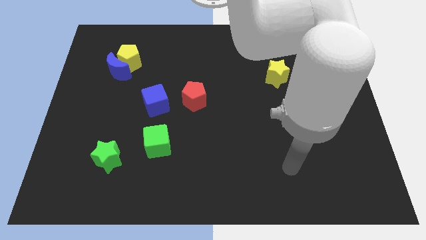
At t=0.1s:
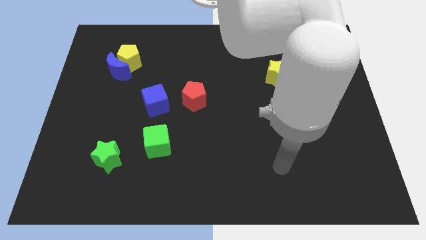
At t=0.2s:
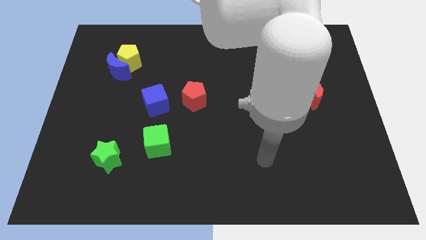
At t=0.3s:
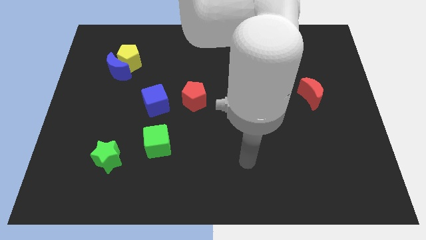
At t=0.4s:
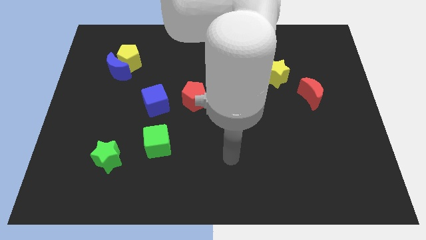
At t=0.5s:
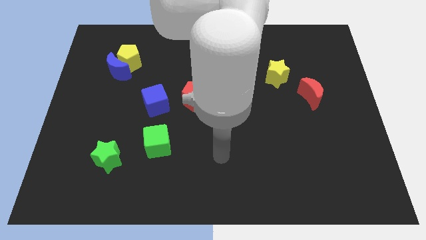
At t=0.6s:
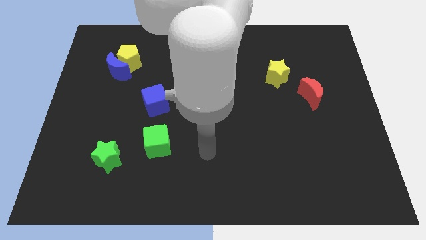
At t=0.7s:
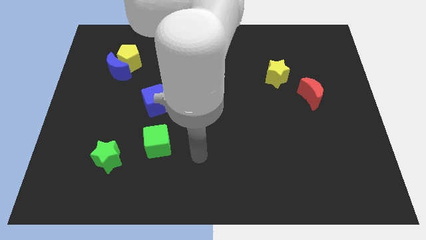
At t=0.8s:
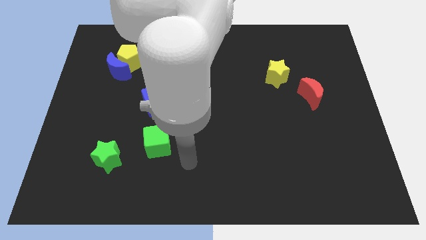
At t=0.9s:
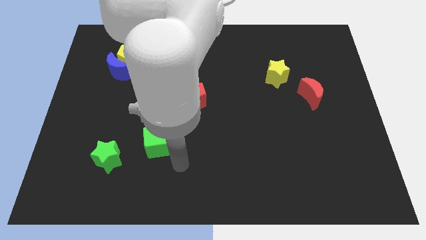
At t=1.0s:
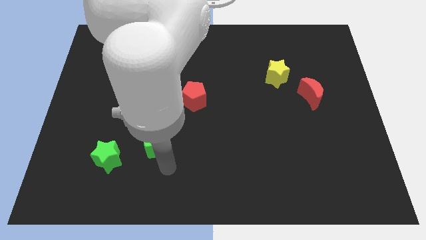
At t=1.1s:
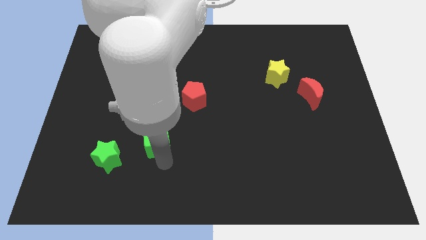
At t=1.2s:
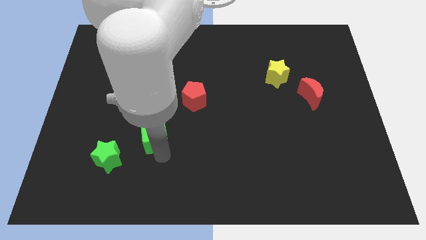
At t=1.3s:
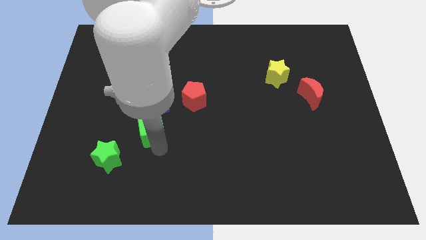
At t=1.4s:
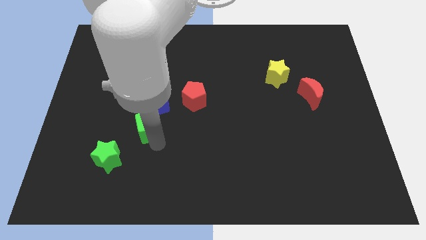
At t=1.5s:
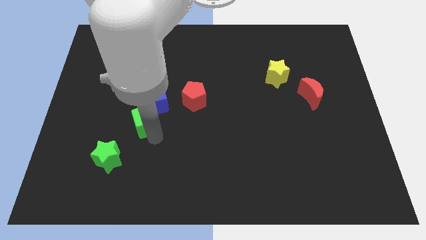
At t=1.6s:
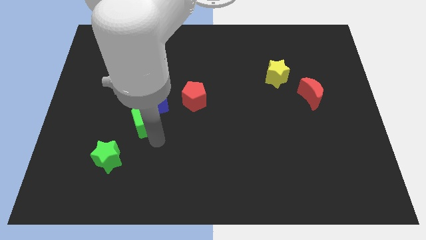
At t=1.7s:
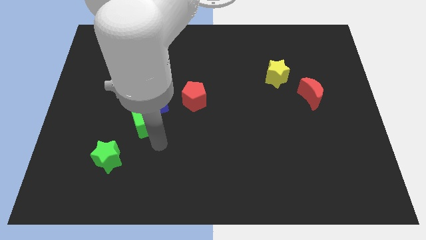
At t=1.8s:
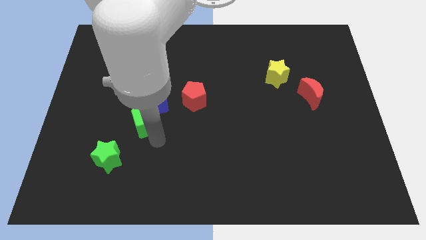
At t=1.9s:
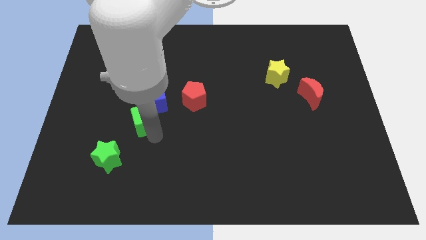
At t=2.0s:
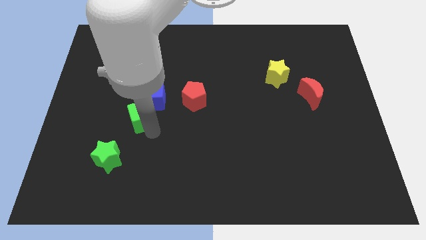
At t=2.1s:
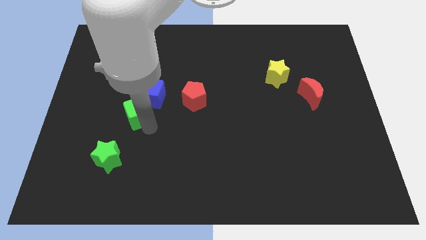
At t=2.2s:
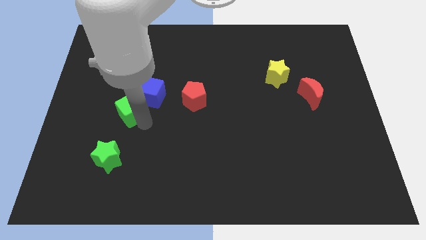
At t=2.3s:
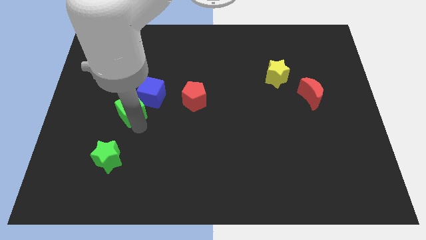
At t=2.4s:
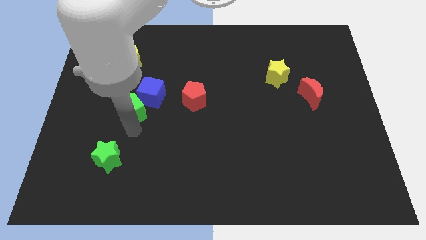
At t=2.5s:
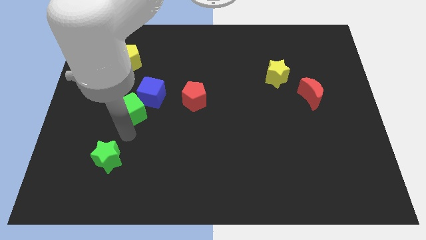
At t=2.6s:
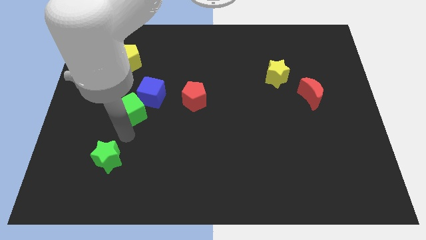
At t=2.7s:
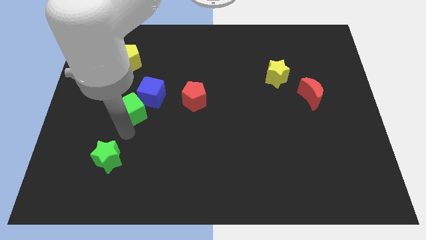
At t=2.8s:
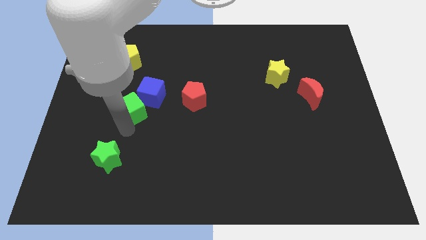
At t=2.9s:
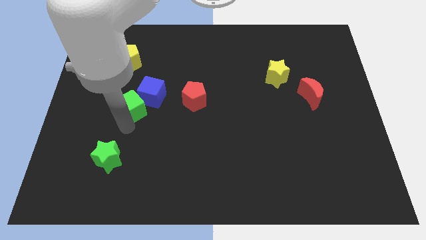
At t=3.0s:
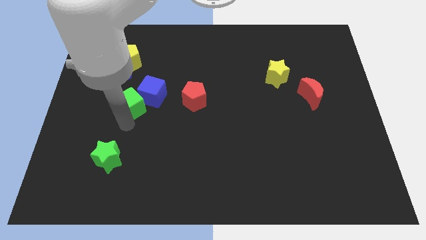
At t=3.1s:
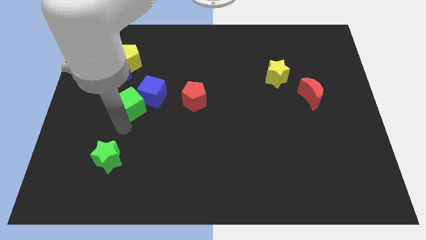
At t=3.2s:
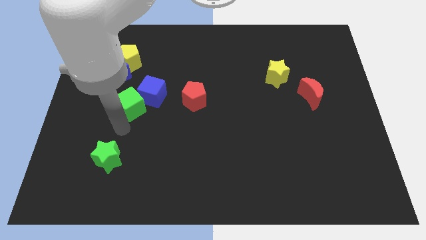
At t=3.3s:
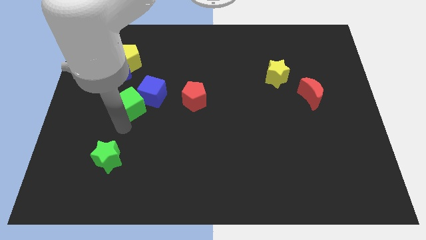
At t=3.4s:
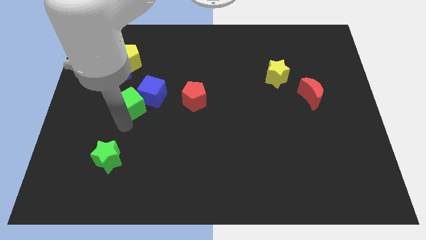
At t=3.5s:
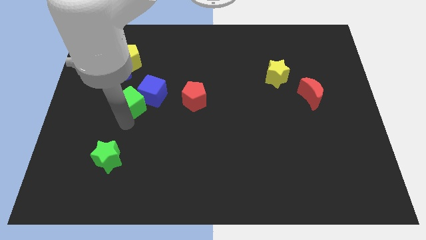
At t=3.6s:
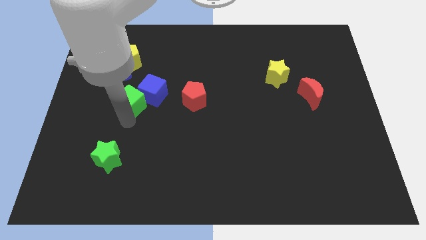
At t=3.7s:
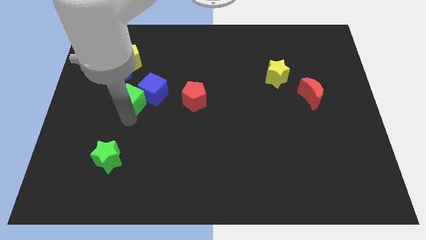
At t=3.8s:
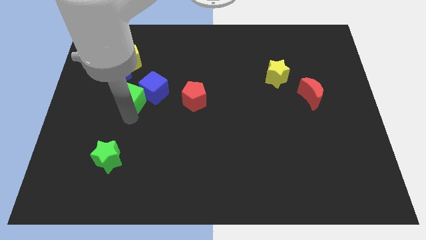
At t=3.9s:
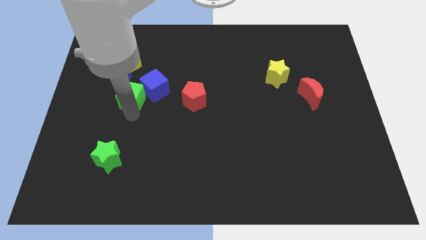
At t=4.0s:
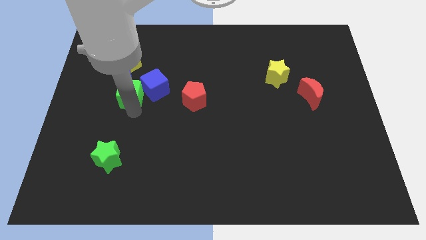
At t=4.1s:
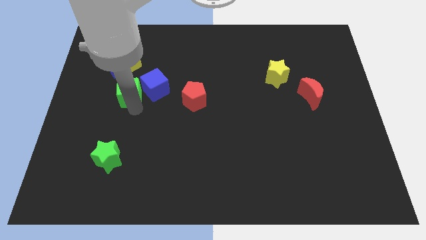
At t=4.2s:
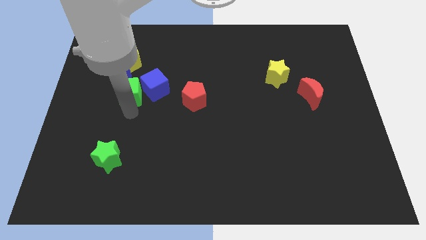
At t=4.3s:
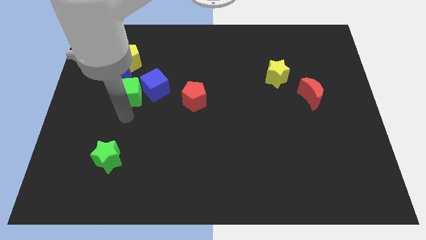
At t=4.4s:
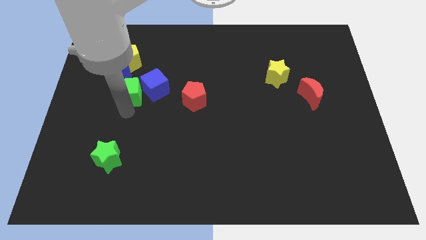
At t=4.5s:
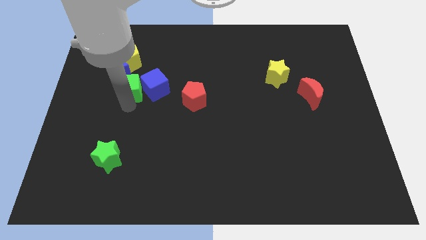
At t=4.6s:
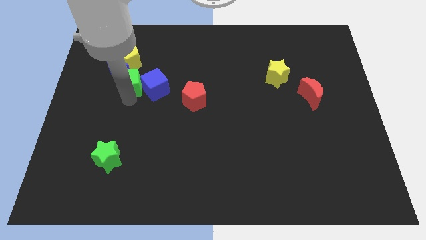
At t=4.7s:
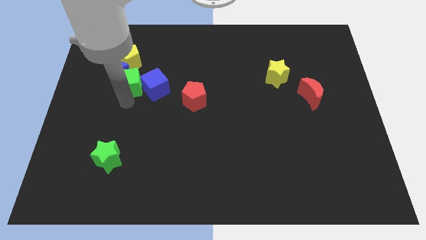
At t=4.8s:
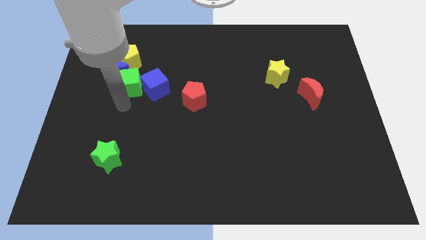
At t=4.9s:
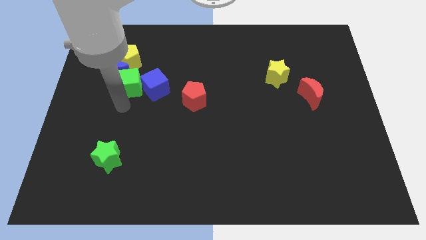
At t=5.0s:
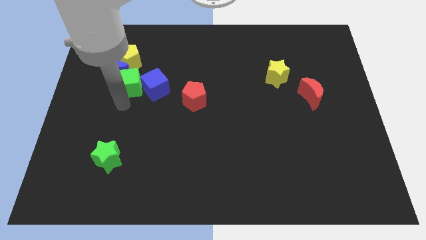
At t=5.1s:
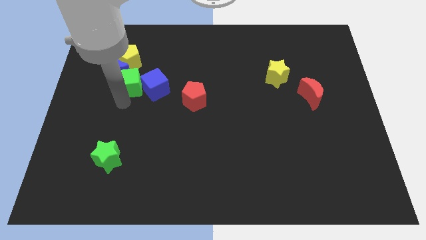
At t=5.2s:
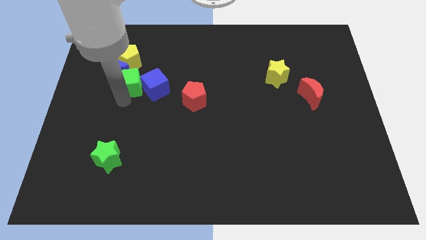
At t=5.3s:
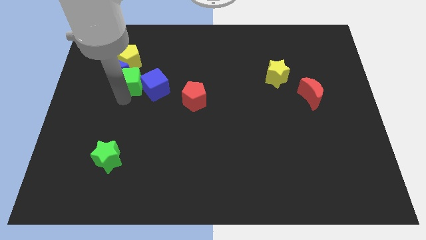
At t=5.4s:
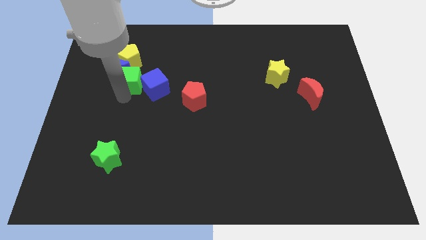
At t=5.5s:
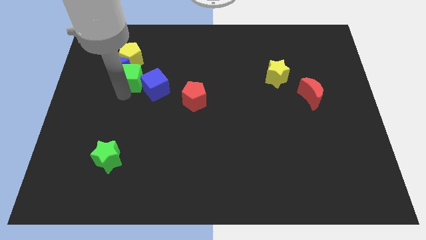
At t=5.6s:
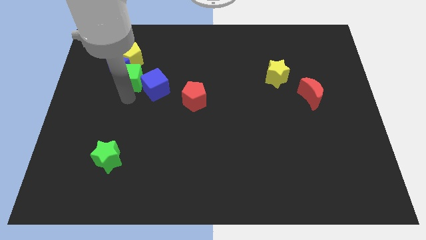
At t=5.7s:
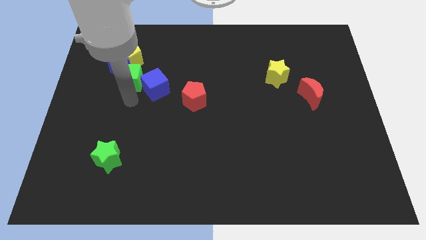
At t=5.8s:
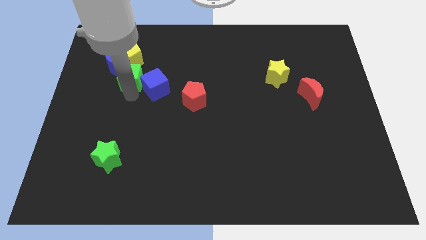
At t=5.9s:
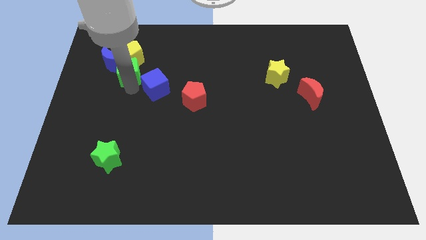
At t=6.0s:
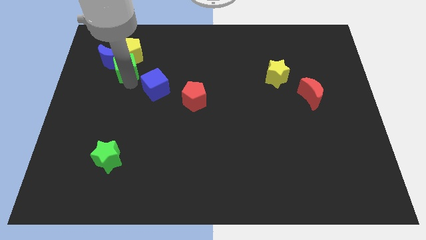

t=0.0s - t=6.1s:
slide the green cube close to the yellow pentagon

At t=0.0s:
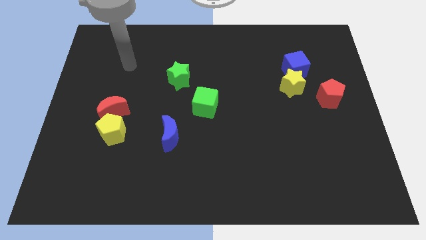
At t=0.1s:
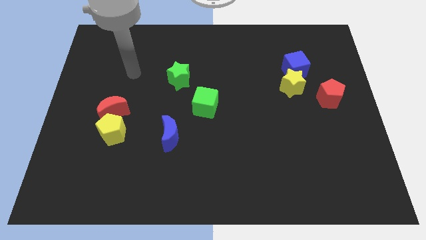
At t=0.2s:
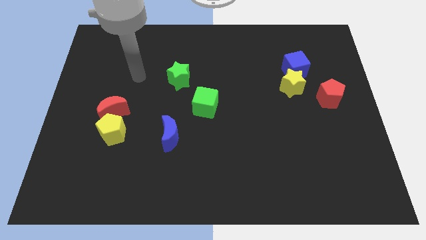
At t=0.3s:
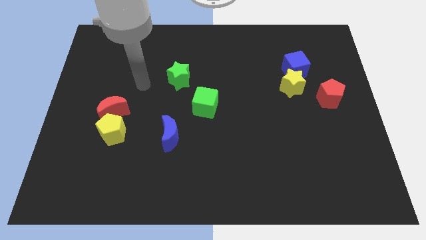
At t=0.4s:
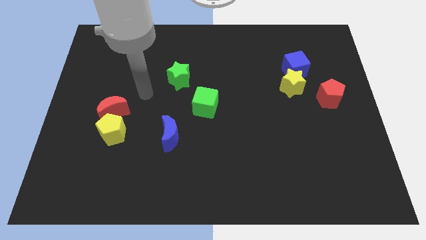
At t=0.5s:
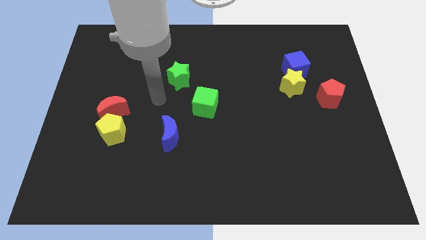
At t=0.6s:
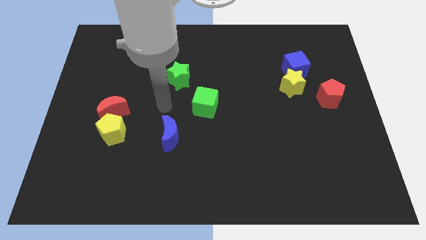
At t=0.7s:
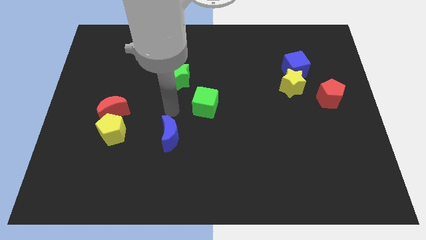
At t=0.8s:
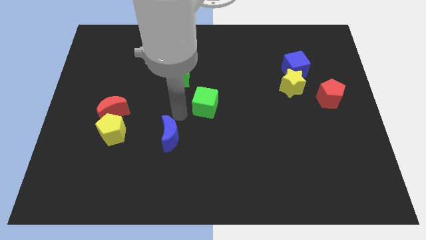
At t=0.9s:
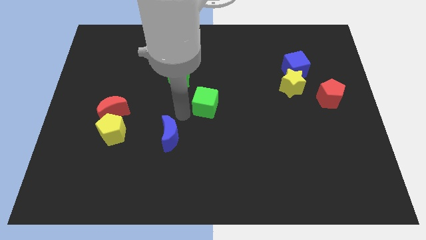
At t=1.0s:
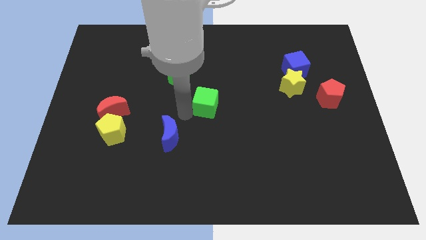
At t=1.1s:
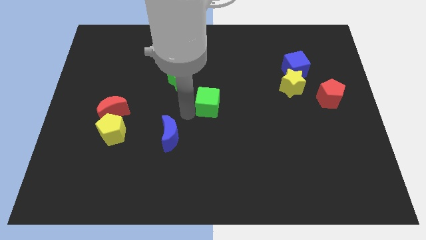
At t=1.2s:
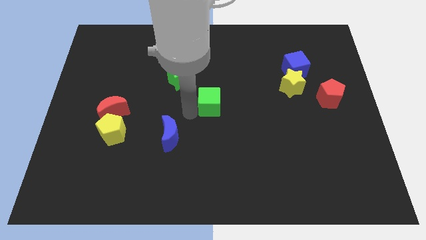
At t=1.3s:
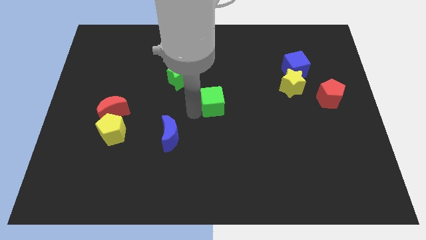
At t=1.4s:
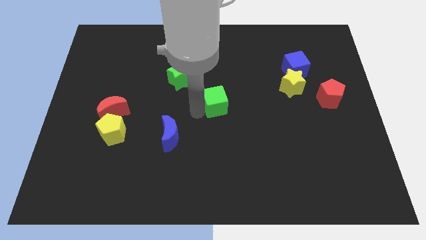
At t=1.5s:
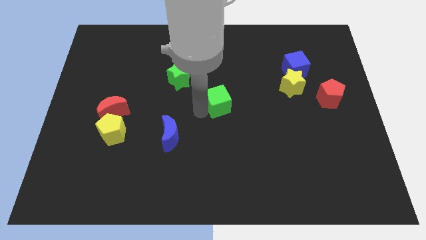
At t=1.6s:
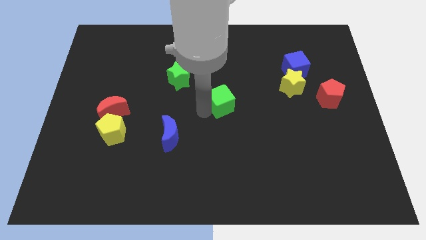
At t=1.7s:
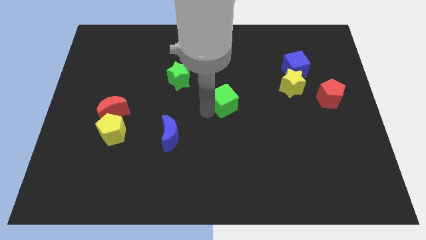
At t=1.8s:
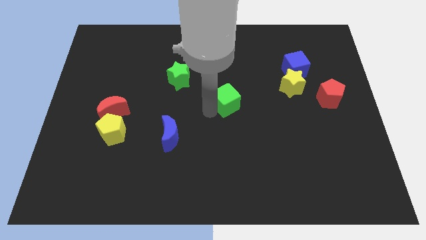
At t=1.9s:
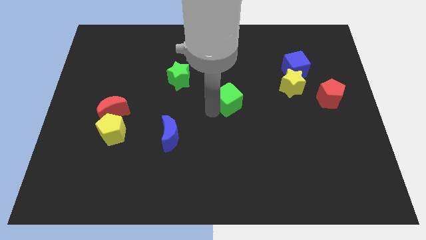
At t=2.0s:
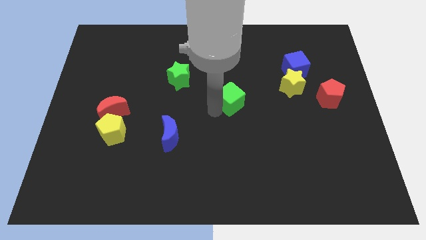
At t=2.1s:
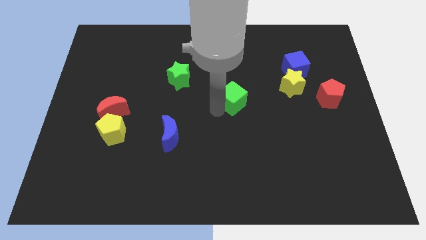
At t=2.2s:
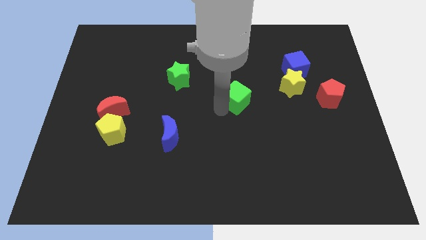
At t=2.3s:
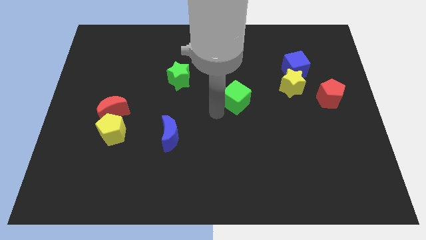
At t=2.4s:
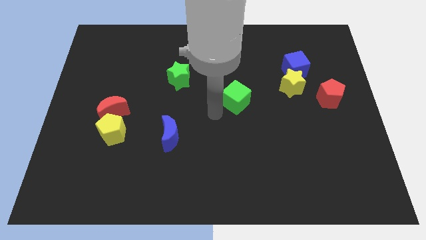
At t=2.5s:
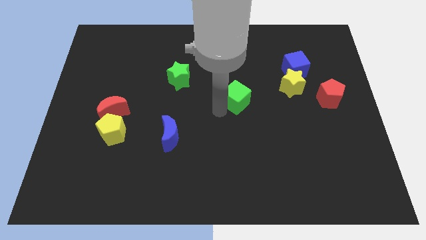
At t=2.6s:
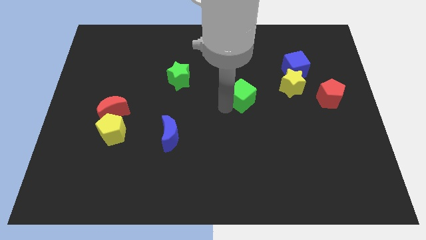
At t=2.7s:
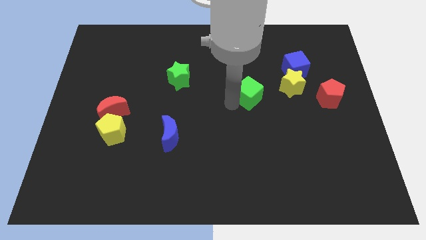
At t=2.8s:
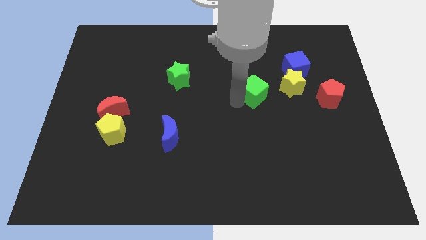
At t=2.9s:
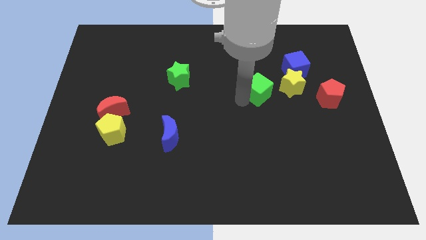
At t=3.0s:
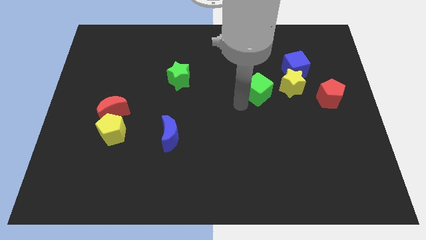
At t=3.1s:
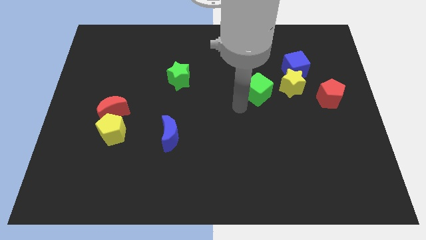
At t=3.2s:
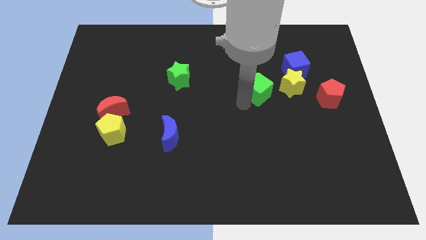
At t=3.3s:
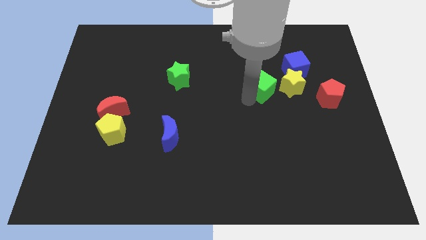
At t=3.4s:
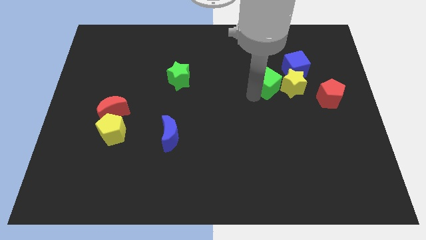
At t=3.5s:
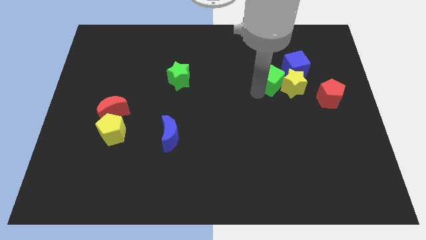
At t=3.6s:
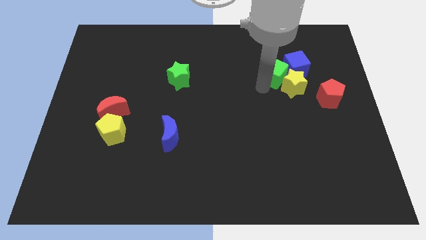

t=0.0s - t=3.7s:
slide the green cube close to the blue cube
